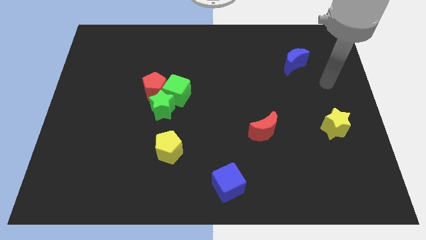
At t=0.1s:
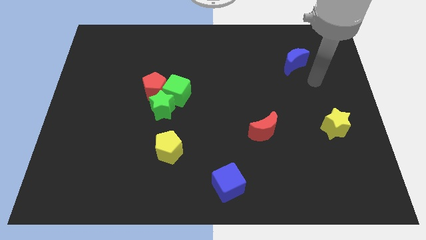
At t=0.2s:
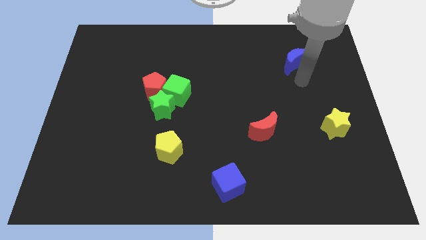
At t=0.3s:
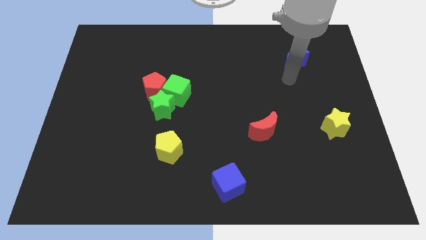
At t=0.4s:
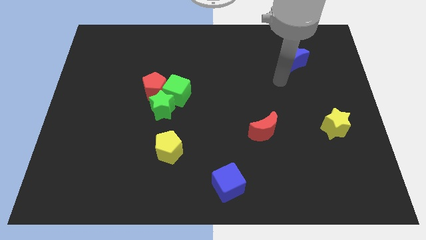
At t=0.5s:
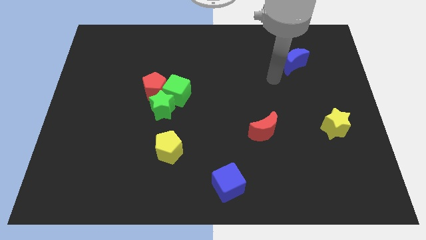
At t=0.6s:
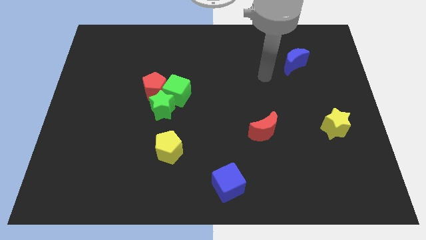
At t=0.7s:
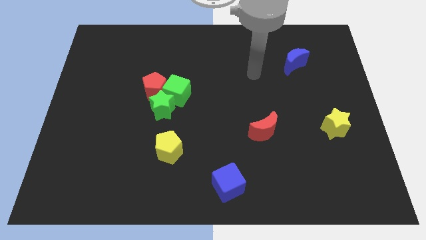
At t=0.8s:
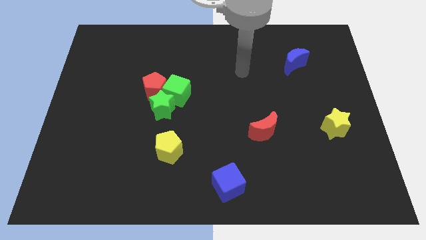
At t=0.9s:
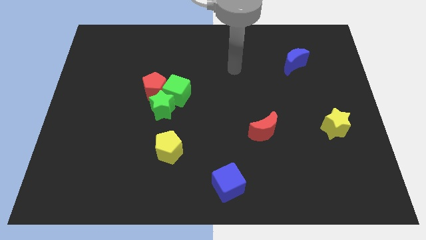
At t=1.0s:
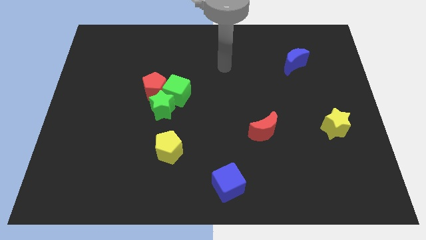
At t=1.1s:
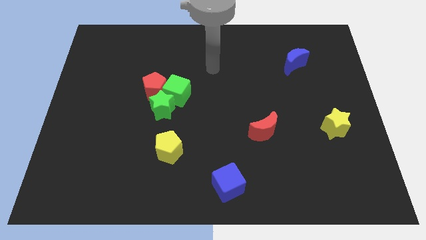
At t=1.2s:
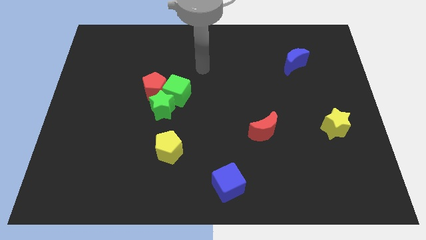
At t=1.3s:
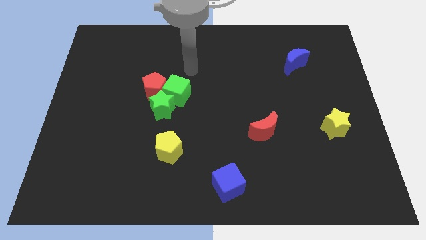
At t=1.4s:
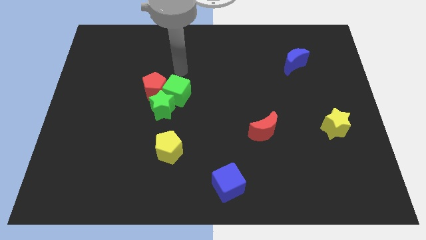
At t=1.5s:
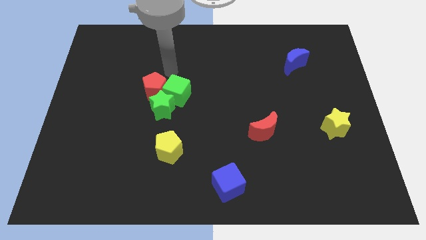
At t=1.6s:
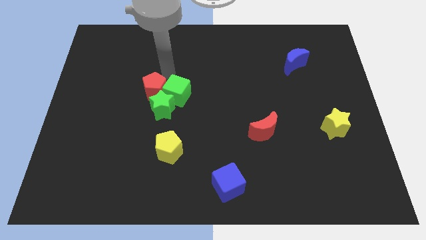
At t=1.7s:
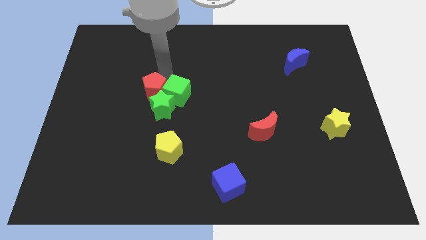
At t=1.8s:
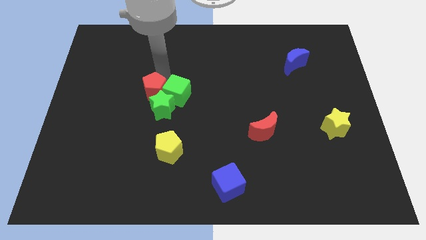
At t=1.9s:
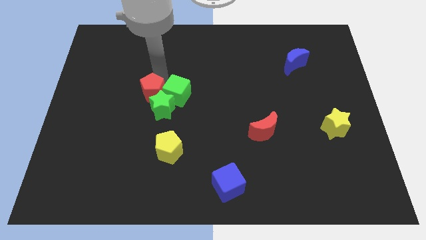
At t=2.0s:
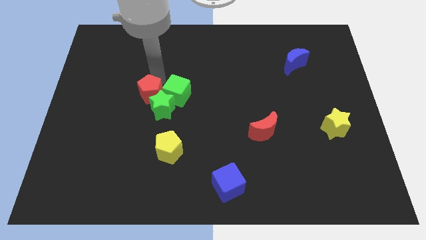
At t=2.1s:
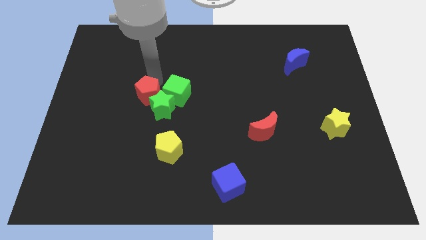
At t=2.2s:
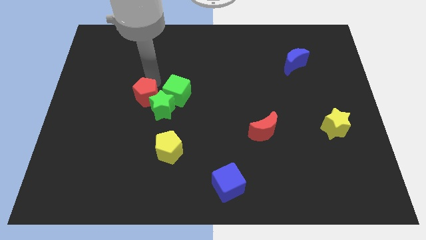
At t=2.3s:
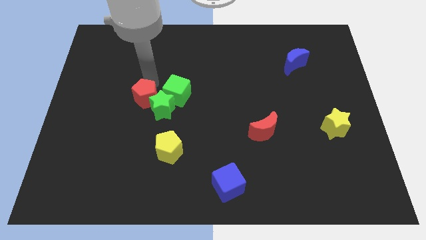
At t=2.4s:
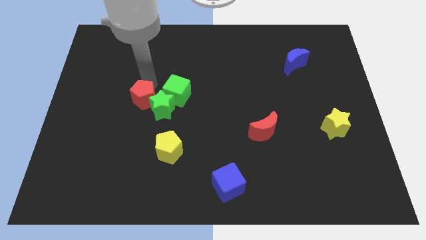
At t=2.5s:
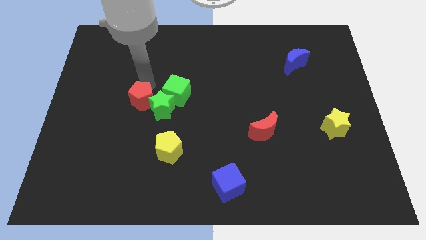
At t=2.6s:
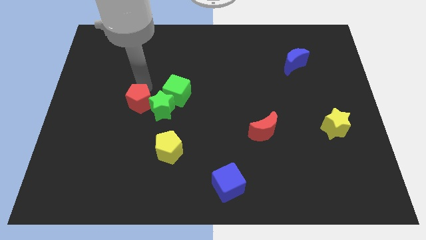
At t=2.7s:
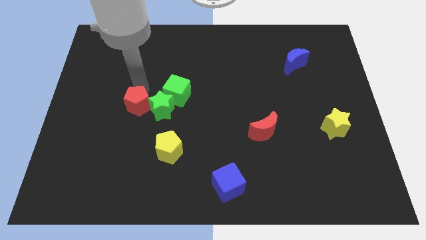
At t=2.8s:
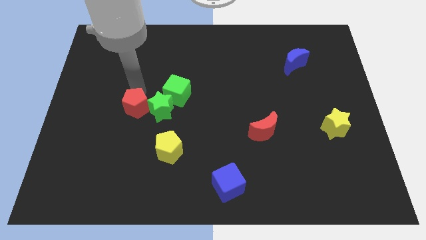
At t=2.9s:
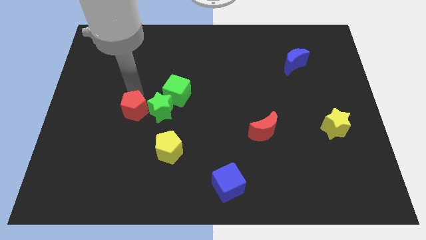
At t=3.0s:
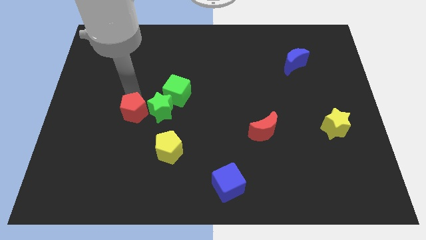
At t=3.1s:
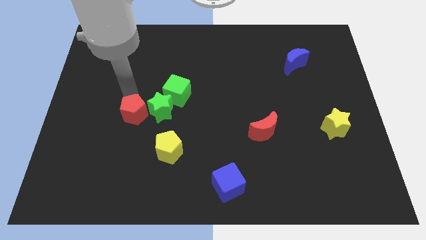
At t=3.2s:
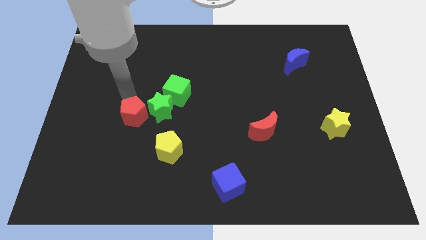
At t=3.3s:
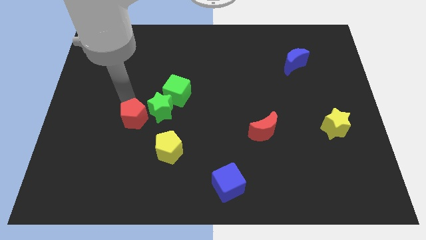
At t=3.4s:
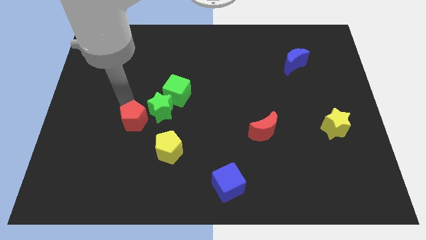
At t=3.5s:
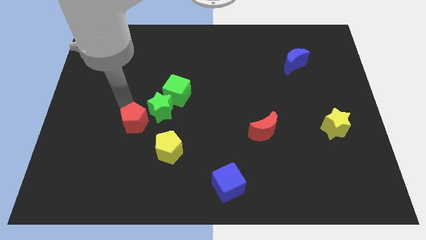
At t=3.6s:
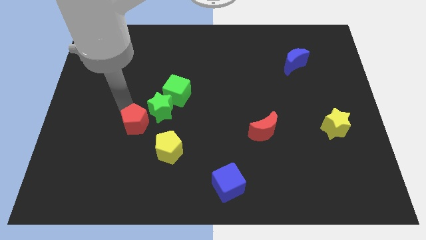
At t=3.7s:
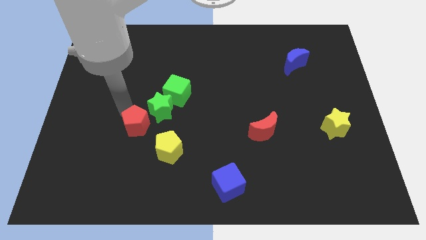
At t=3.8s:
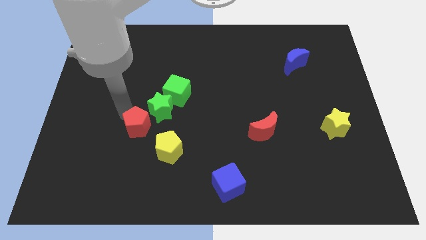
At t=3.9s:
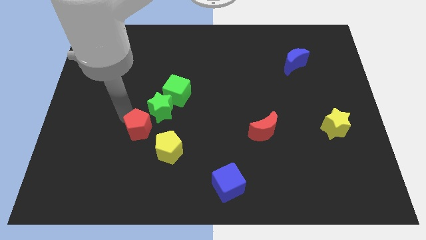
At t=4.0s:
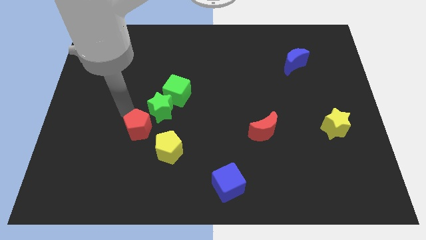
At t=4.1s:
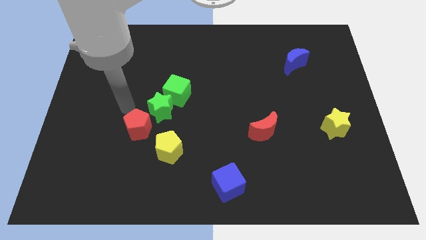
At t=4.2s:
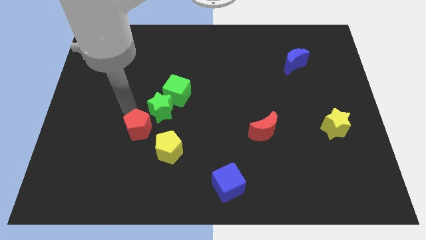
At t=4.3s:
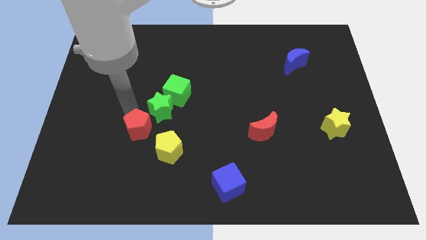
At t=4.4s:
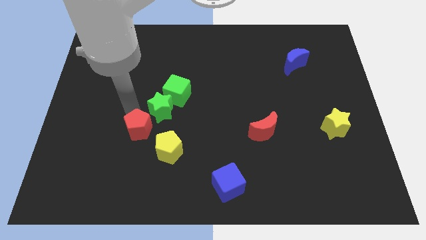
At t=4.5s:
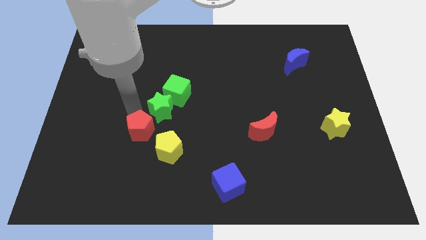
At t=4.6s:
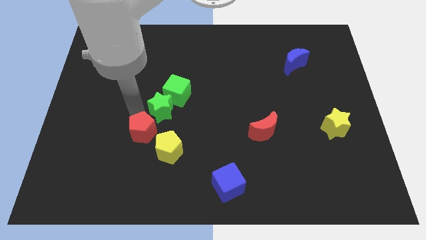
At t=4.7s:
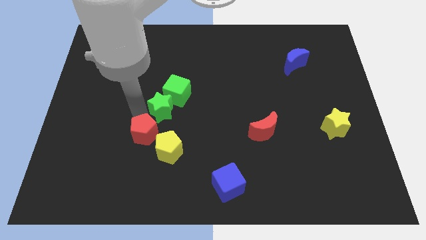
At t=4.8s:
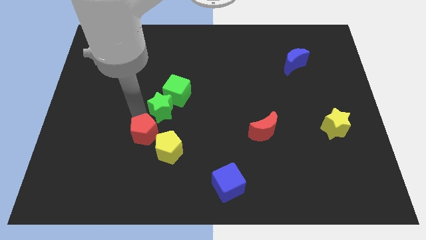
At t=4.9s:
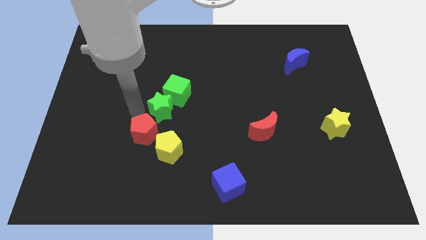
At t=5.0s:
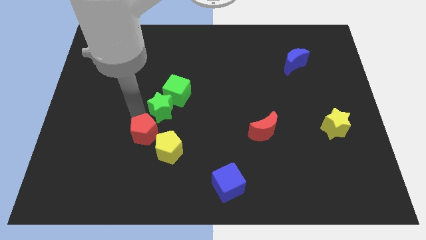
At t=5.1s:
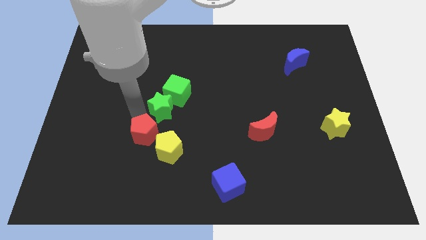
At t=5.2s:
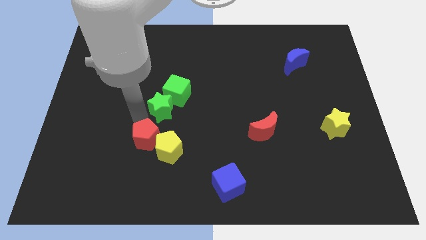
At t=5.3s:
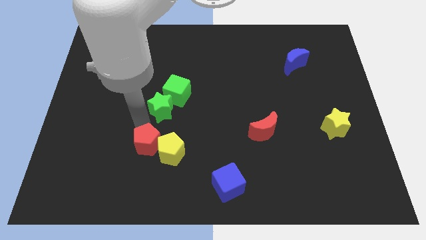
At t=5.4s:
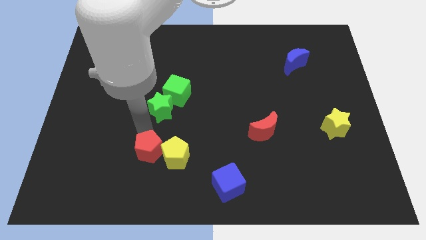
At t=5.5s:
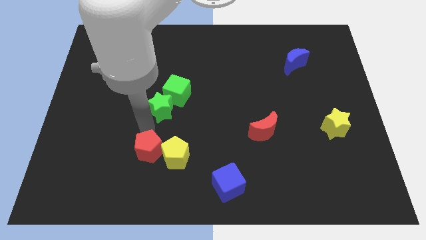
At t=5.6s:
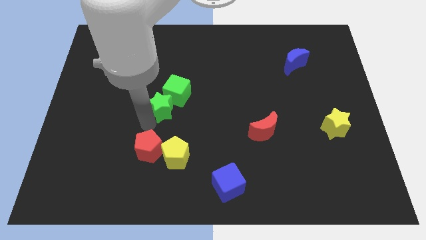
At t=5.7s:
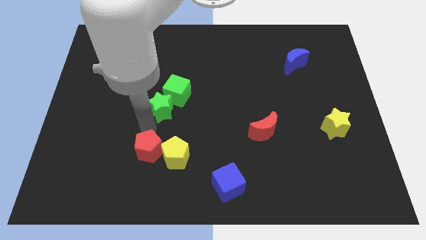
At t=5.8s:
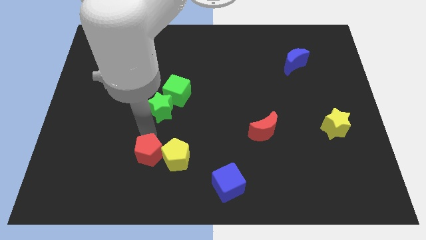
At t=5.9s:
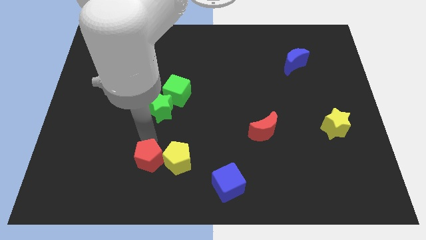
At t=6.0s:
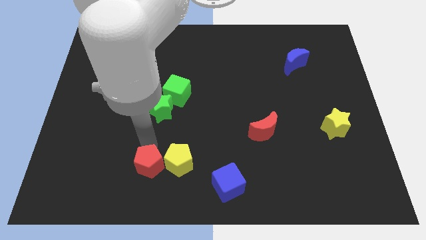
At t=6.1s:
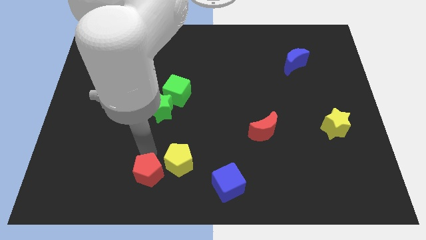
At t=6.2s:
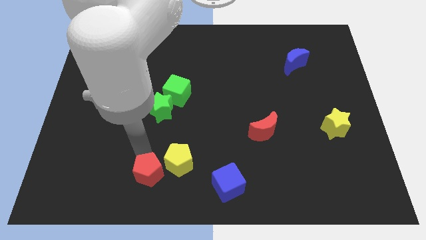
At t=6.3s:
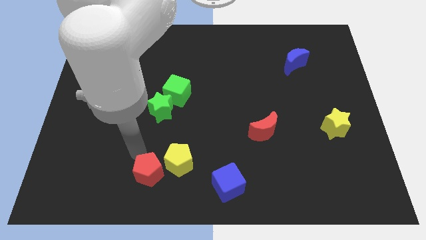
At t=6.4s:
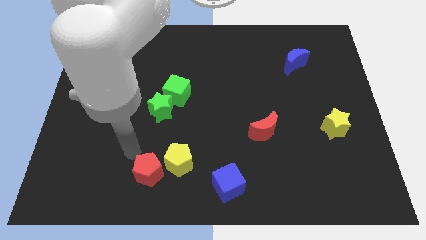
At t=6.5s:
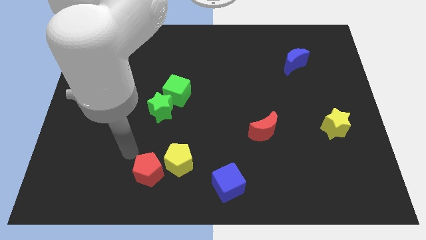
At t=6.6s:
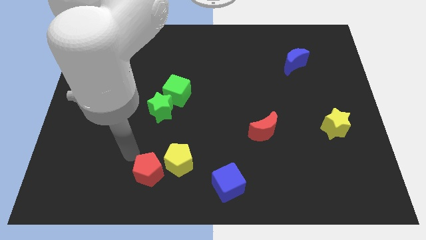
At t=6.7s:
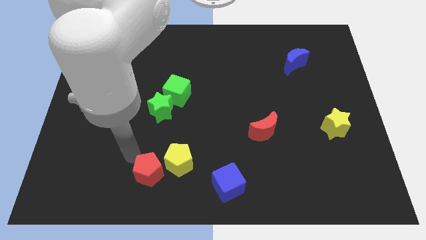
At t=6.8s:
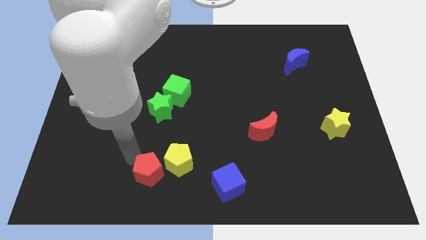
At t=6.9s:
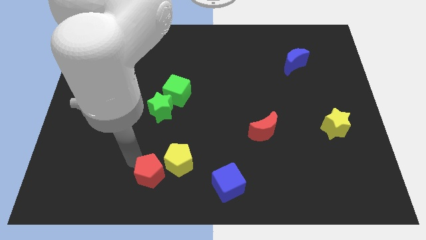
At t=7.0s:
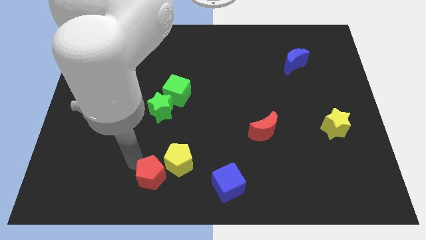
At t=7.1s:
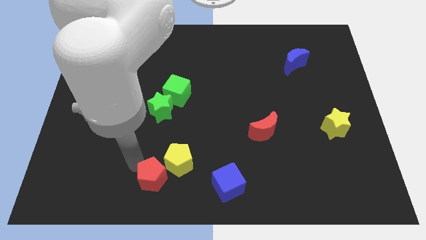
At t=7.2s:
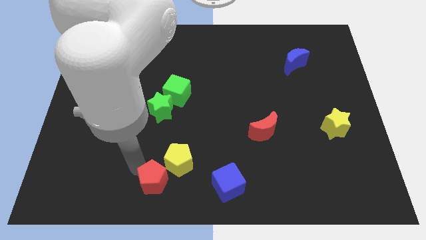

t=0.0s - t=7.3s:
move the red pentagon to the bottom
